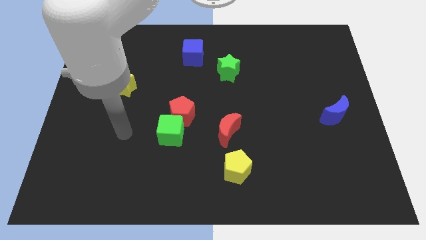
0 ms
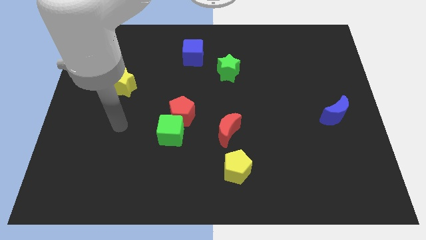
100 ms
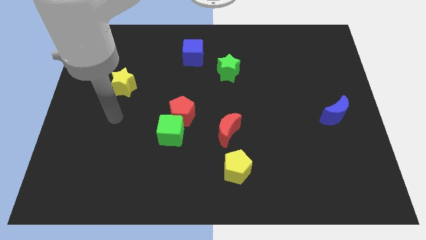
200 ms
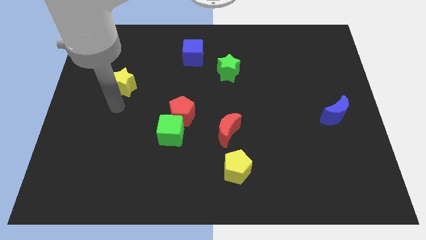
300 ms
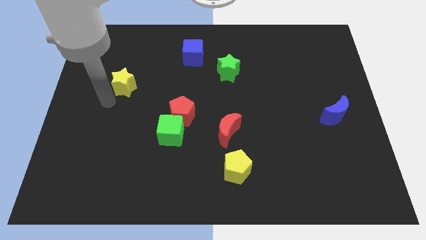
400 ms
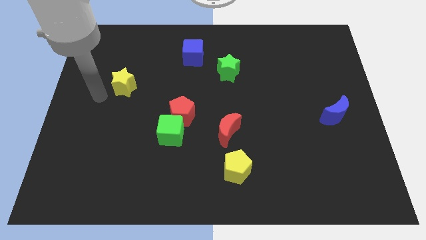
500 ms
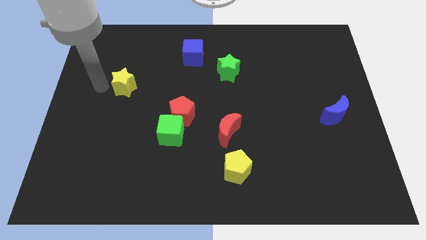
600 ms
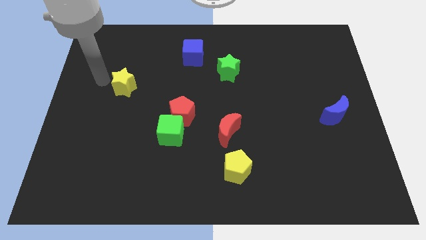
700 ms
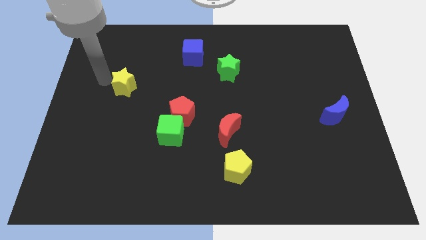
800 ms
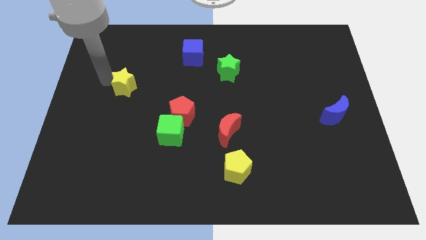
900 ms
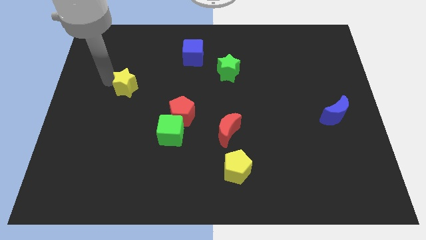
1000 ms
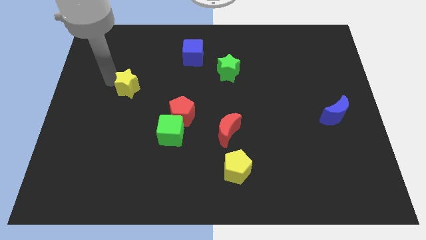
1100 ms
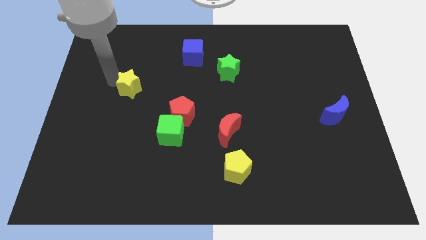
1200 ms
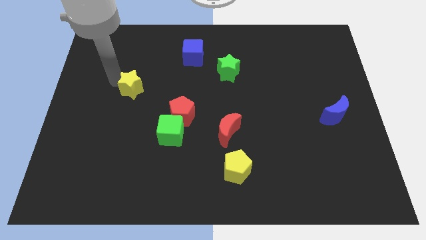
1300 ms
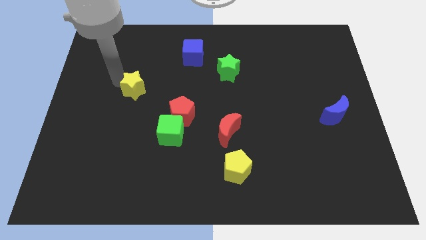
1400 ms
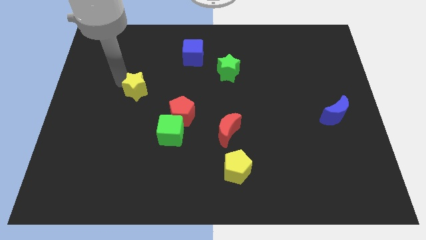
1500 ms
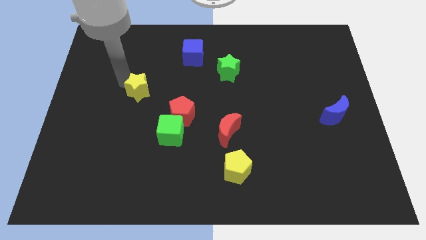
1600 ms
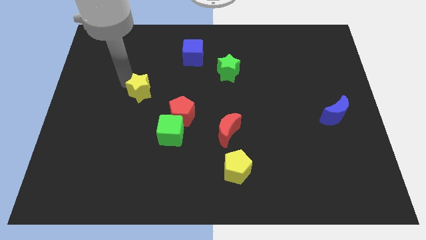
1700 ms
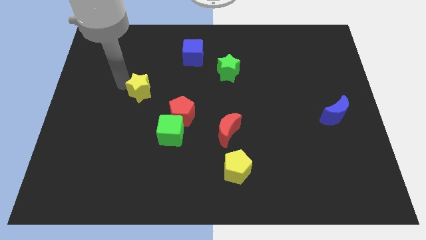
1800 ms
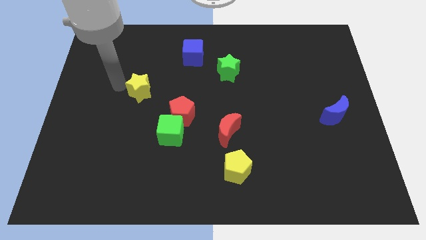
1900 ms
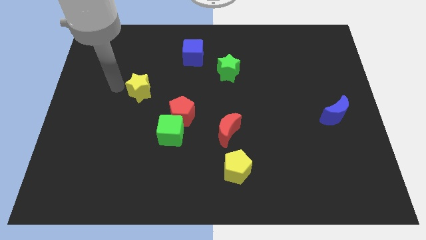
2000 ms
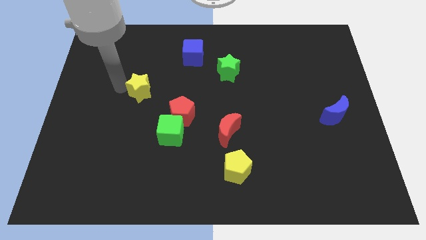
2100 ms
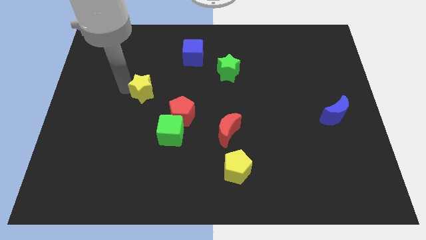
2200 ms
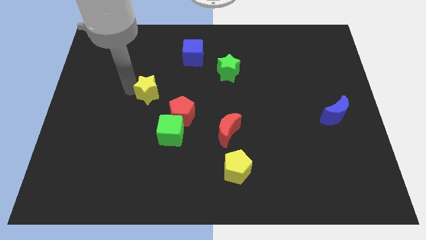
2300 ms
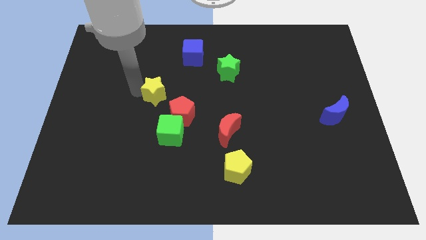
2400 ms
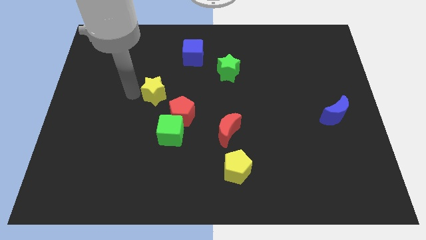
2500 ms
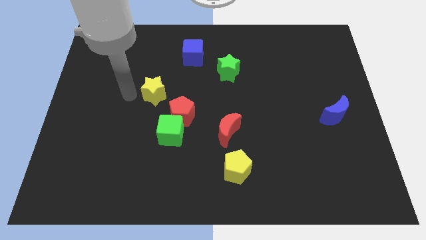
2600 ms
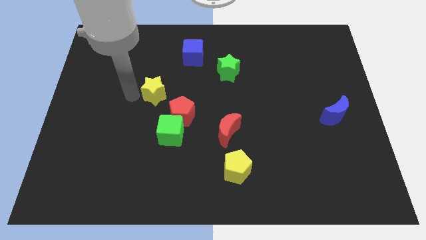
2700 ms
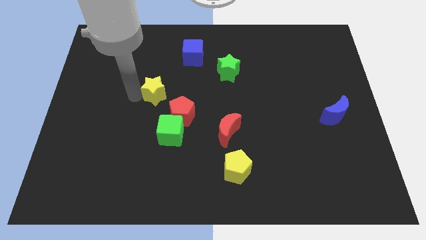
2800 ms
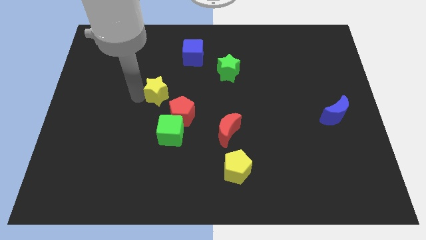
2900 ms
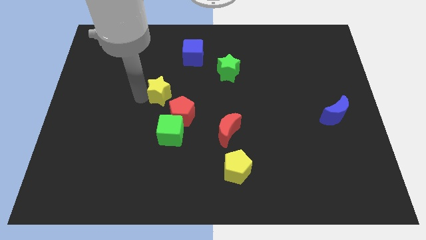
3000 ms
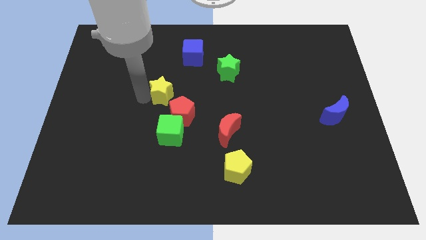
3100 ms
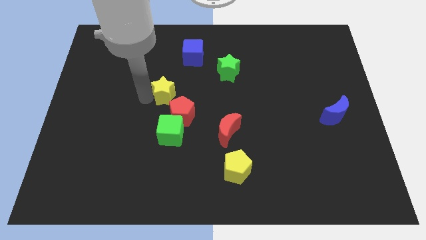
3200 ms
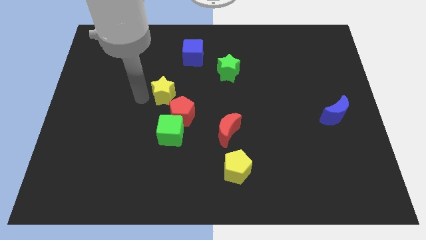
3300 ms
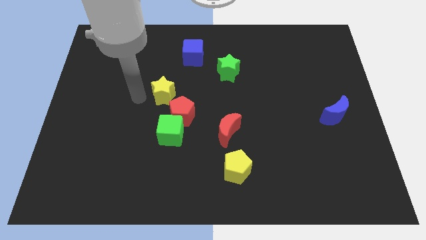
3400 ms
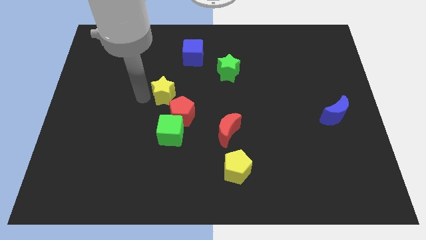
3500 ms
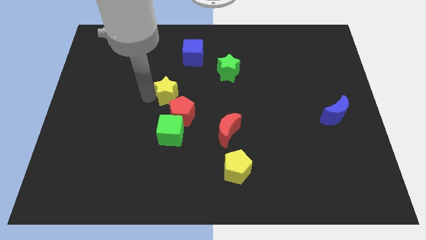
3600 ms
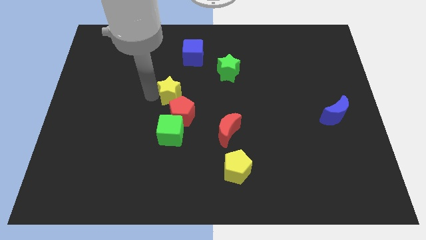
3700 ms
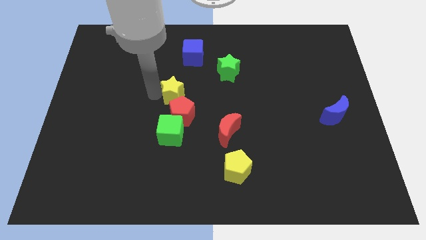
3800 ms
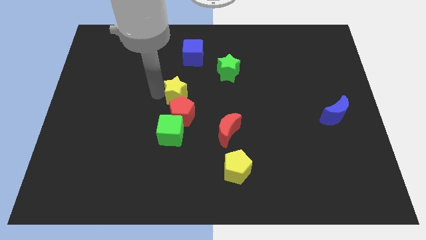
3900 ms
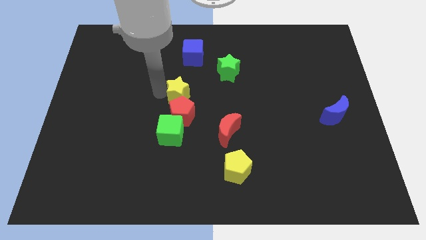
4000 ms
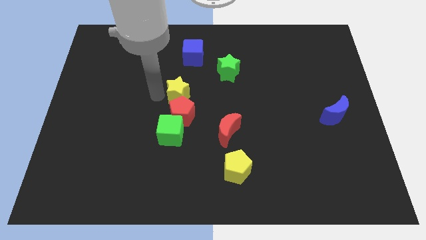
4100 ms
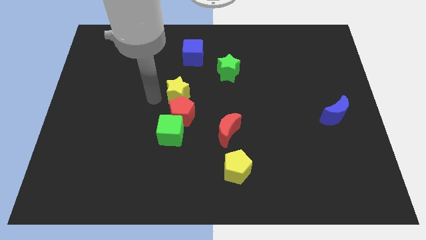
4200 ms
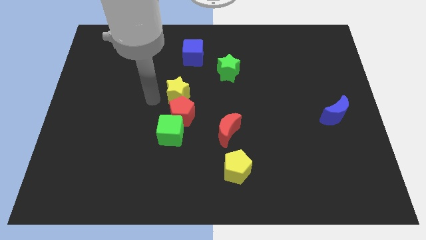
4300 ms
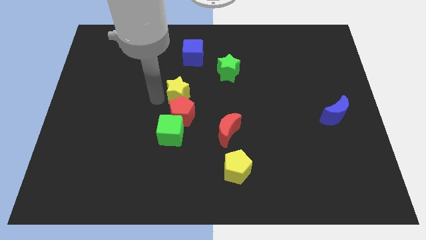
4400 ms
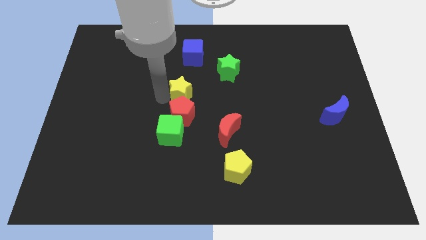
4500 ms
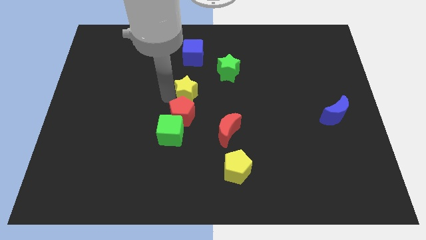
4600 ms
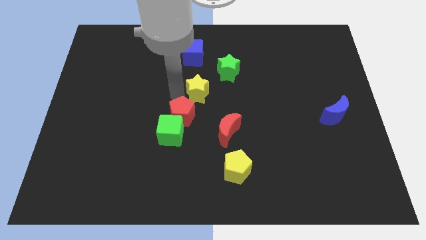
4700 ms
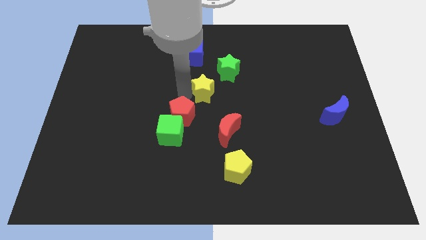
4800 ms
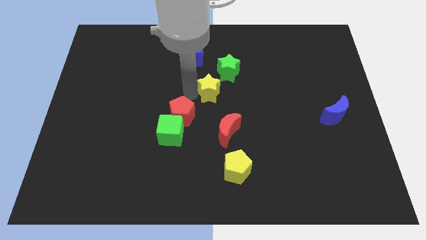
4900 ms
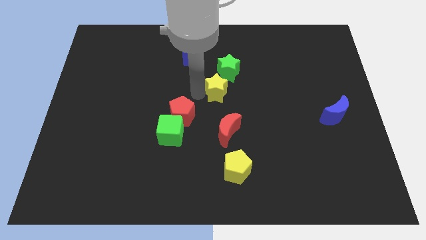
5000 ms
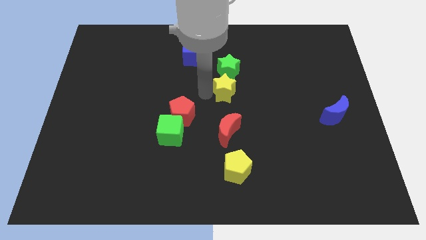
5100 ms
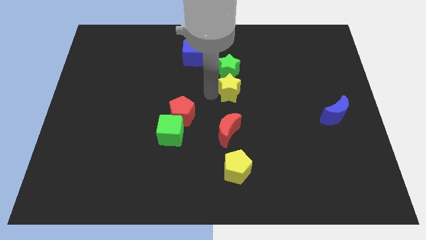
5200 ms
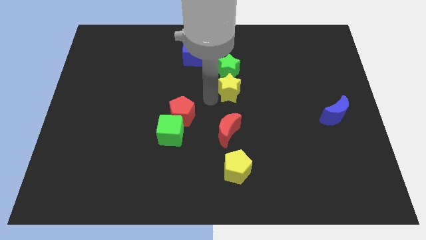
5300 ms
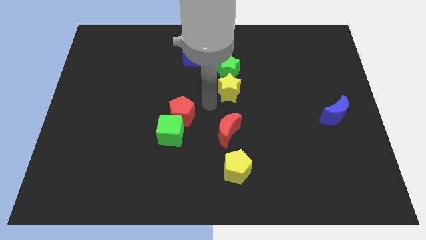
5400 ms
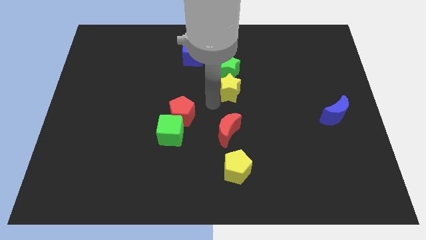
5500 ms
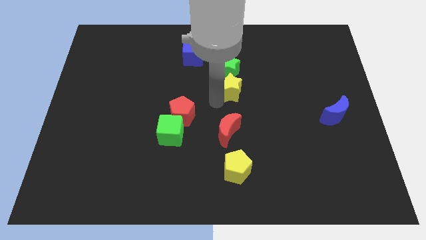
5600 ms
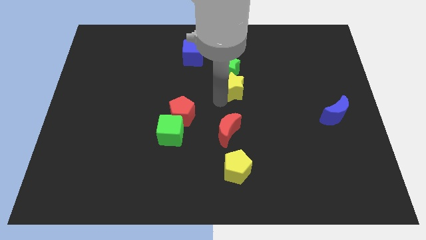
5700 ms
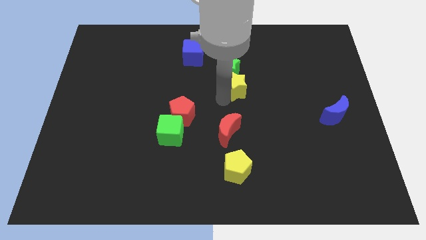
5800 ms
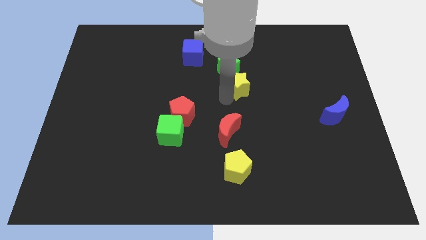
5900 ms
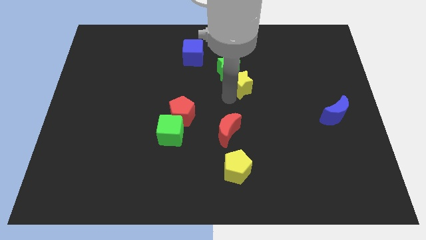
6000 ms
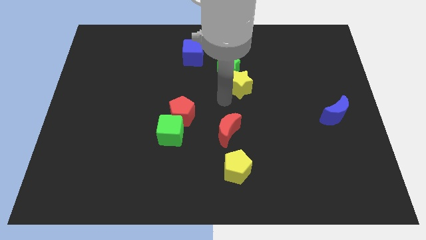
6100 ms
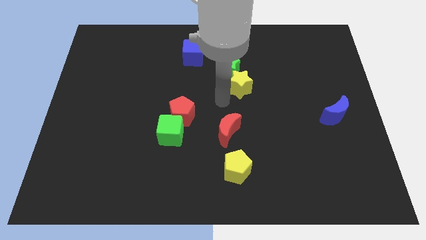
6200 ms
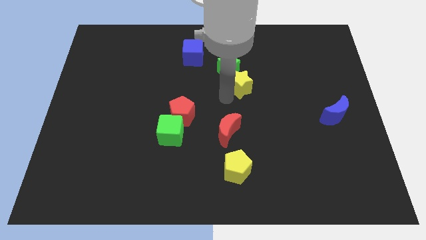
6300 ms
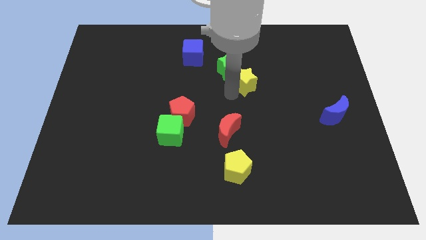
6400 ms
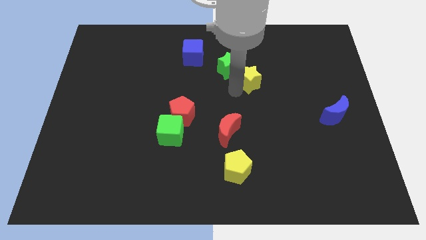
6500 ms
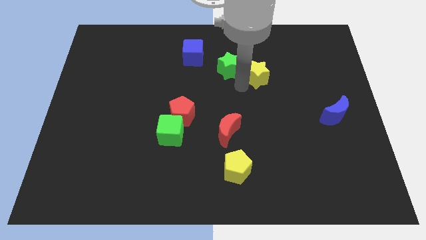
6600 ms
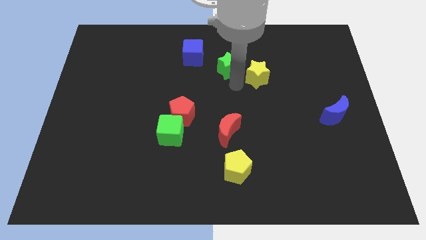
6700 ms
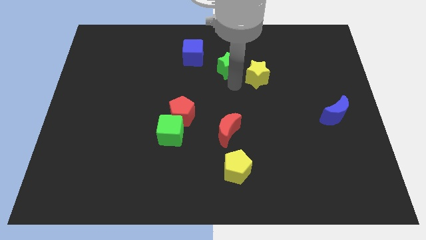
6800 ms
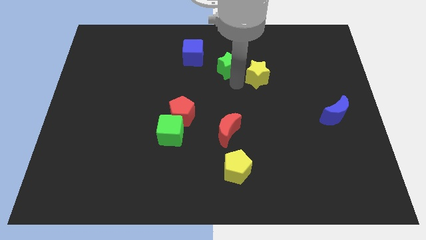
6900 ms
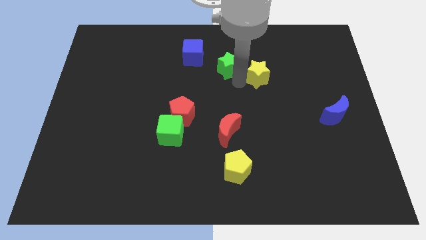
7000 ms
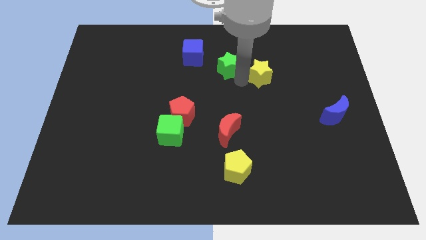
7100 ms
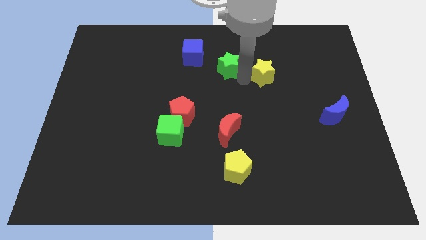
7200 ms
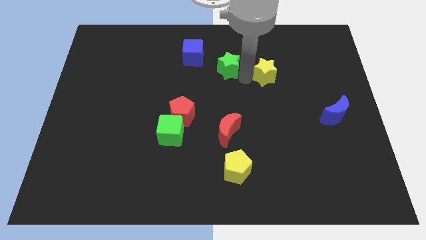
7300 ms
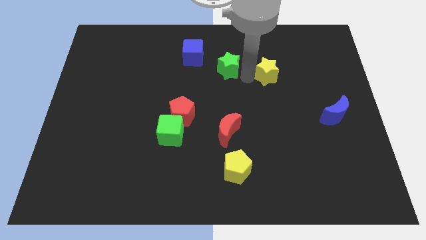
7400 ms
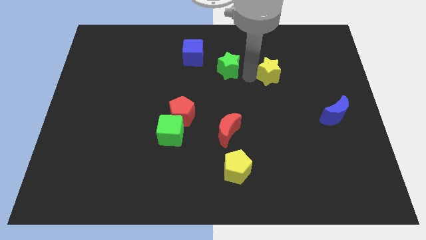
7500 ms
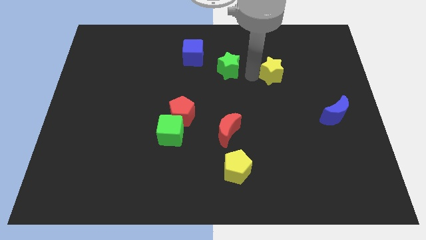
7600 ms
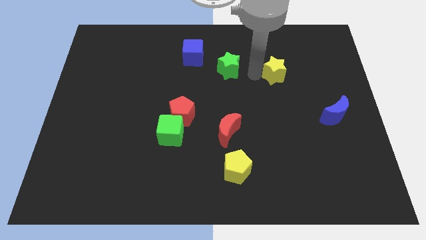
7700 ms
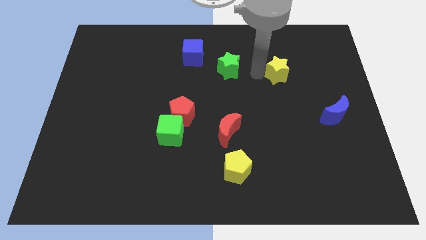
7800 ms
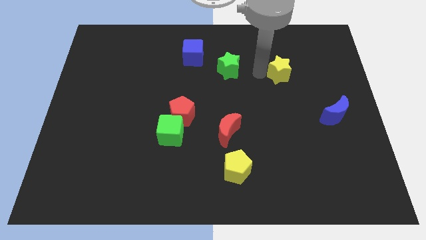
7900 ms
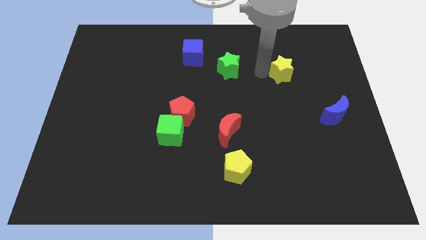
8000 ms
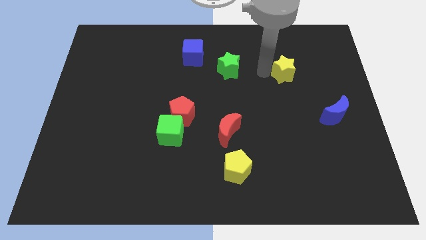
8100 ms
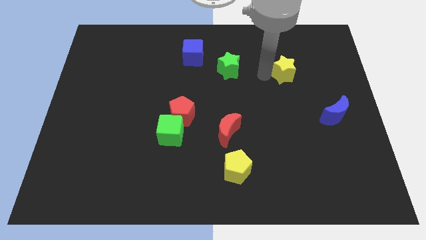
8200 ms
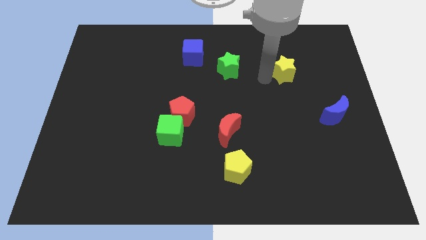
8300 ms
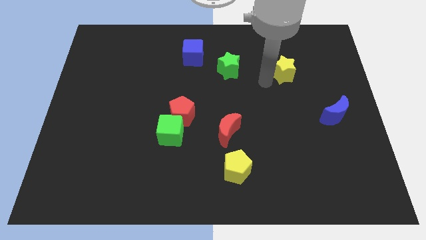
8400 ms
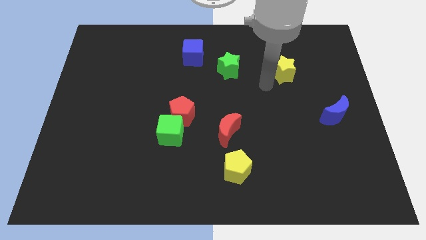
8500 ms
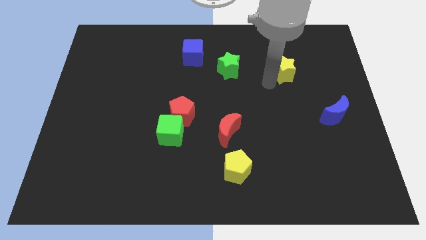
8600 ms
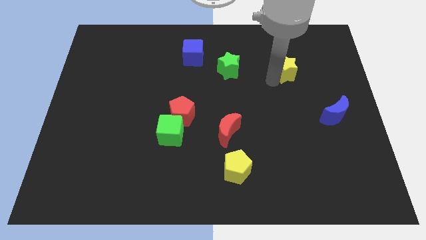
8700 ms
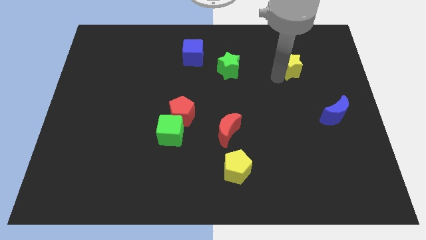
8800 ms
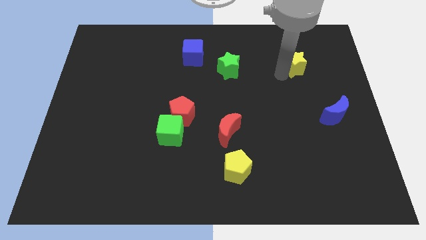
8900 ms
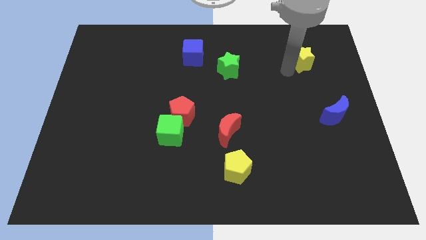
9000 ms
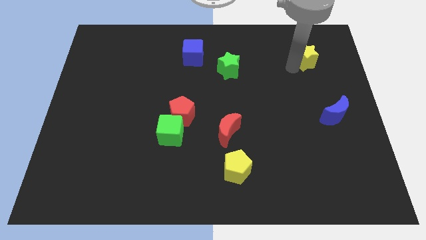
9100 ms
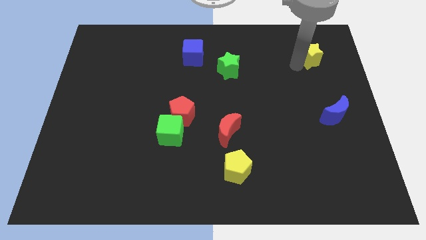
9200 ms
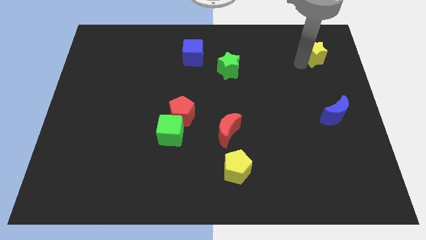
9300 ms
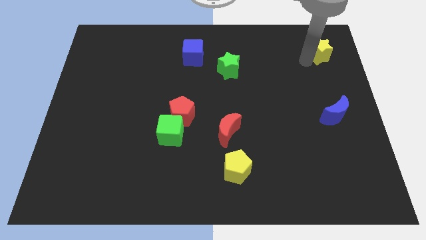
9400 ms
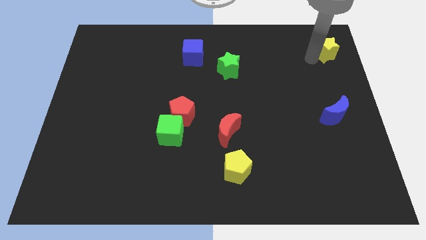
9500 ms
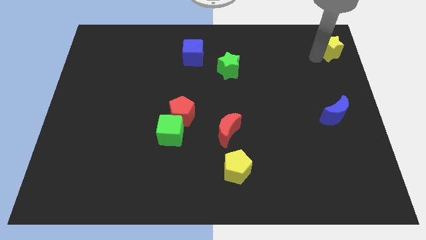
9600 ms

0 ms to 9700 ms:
put the yellow star to the top right
